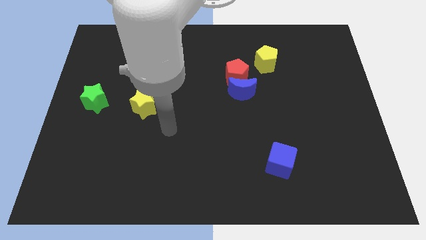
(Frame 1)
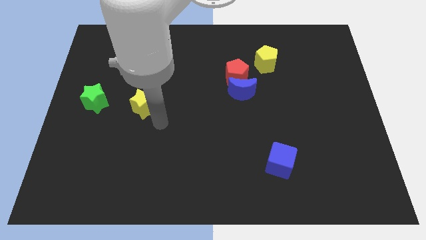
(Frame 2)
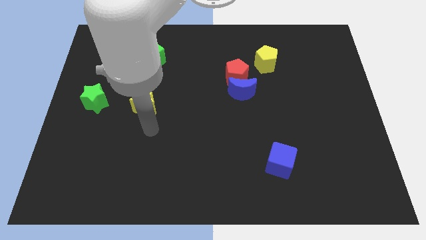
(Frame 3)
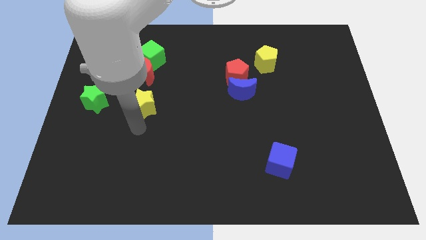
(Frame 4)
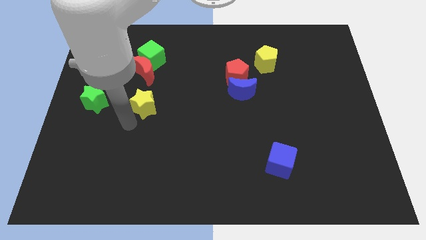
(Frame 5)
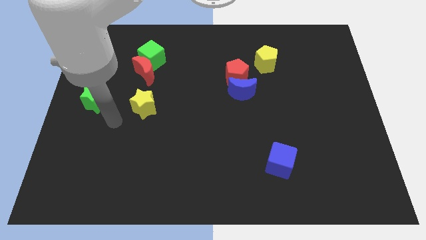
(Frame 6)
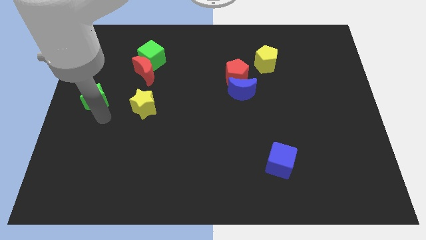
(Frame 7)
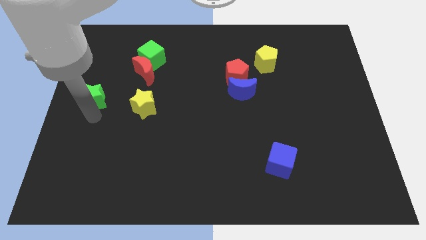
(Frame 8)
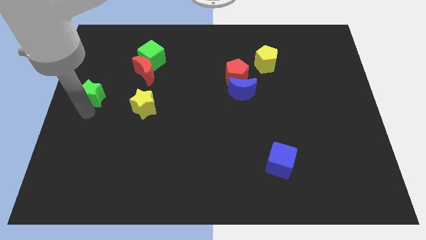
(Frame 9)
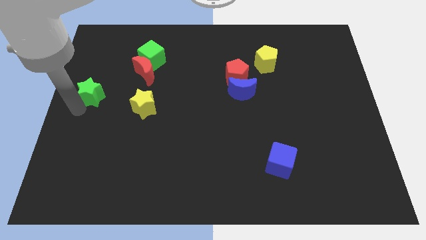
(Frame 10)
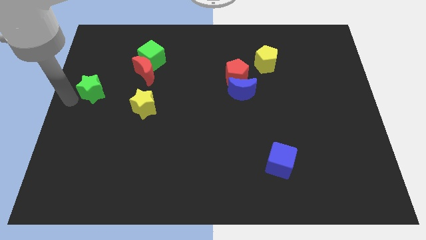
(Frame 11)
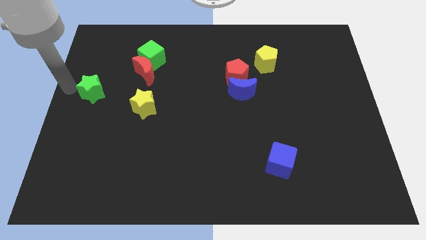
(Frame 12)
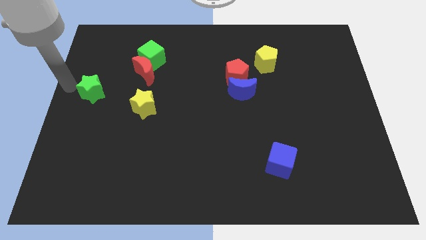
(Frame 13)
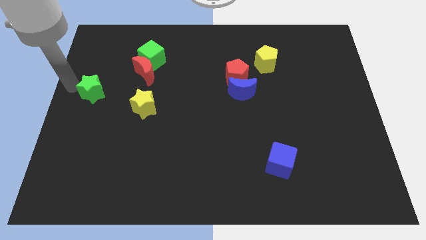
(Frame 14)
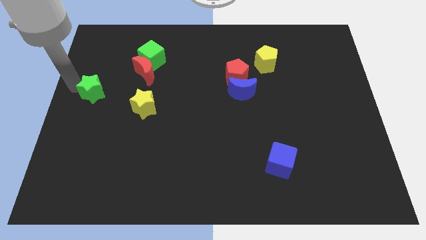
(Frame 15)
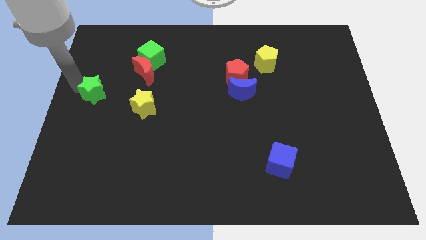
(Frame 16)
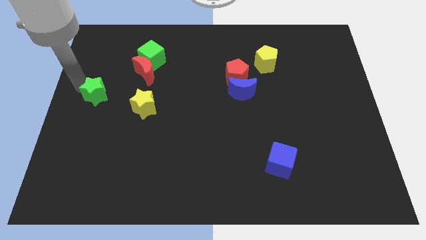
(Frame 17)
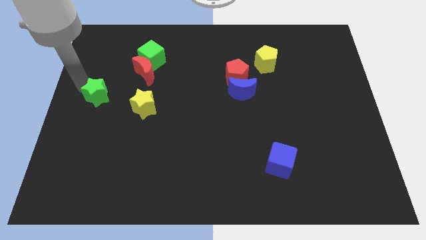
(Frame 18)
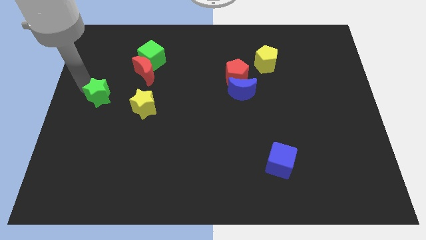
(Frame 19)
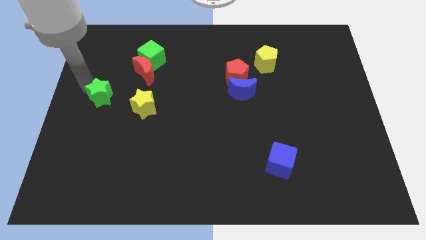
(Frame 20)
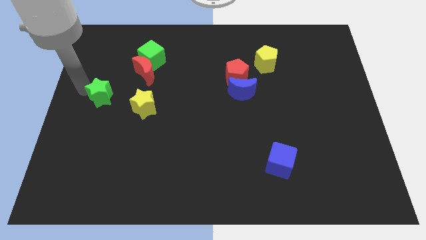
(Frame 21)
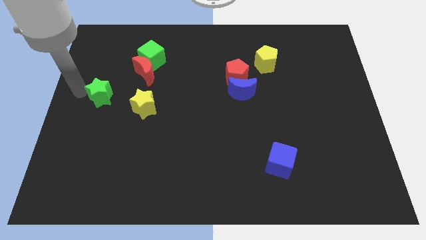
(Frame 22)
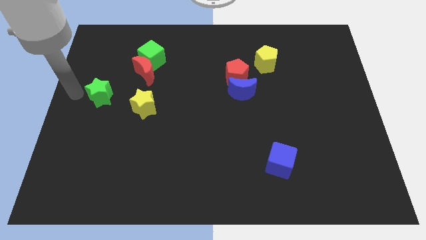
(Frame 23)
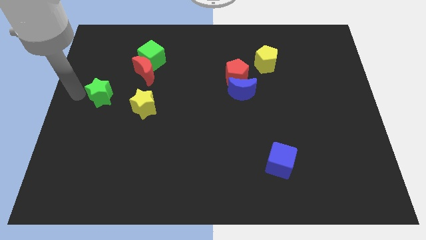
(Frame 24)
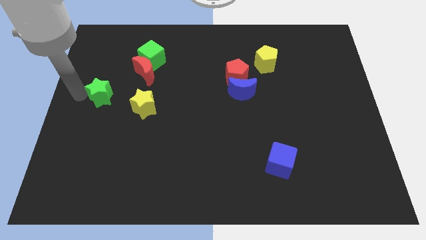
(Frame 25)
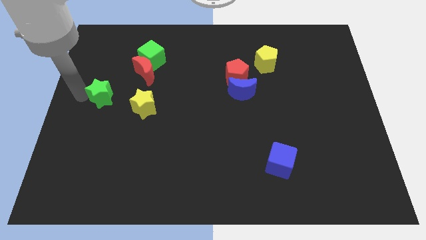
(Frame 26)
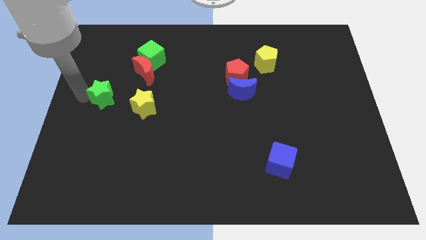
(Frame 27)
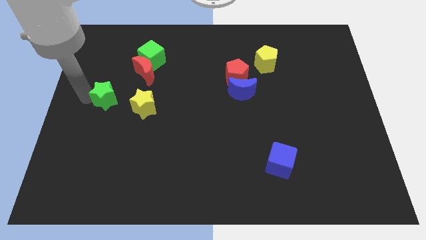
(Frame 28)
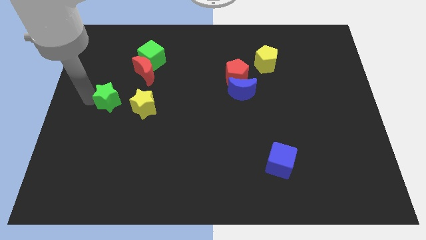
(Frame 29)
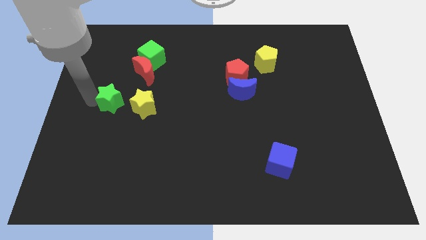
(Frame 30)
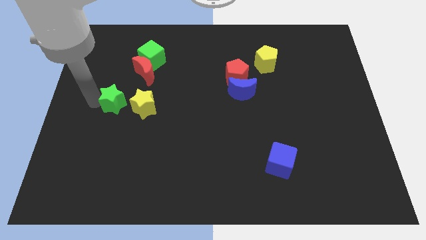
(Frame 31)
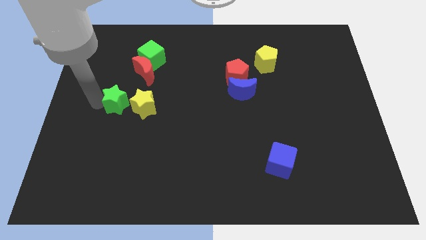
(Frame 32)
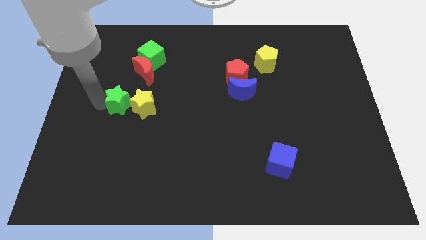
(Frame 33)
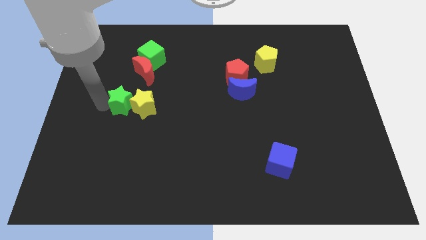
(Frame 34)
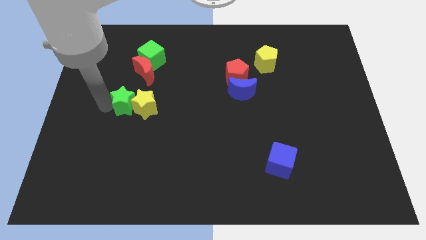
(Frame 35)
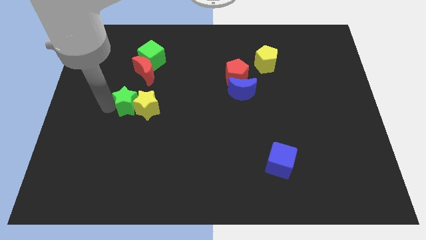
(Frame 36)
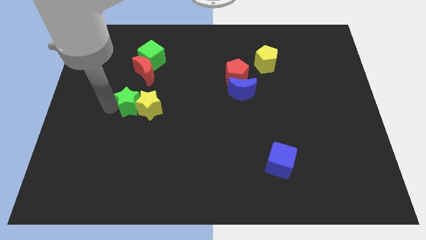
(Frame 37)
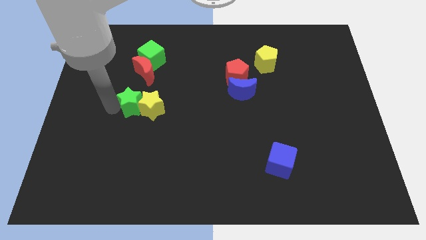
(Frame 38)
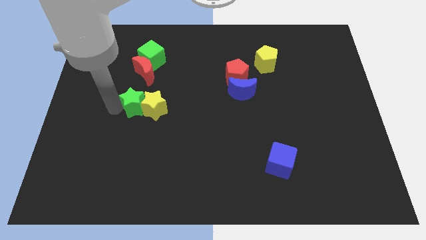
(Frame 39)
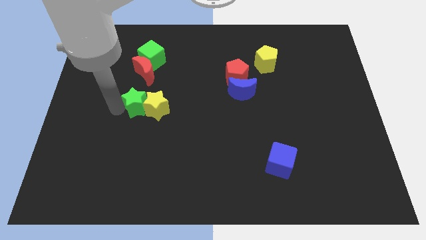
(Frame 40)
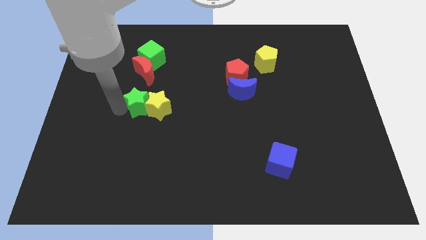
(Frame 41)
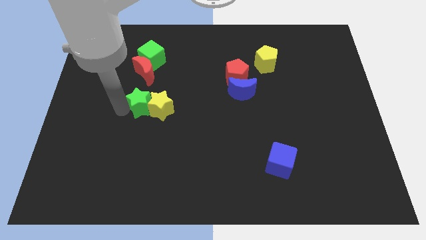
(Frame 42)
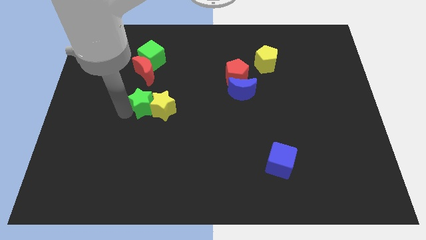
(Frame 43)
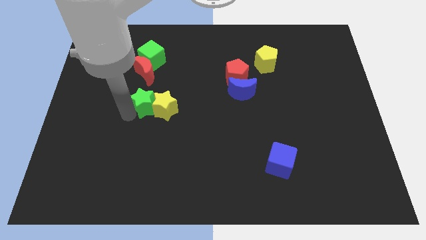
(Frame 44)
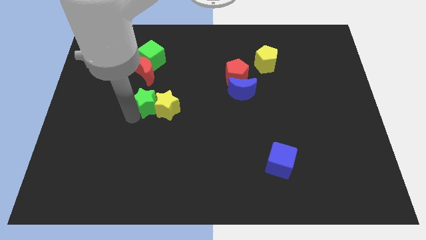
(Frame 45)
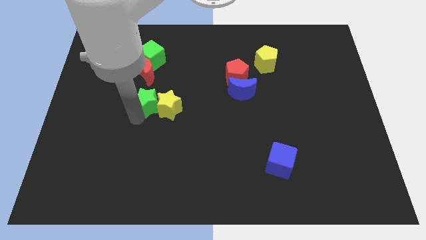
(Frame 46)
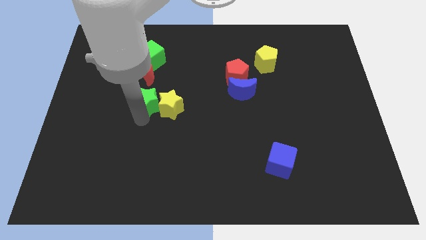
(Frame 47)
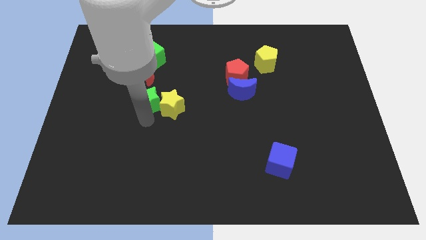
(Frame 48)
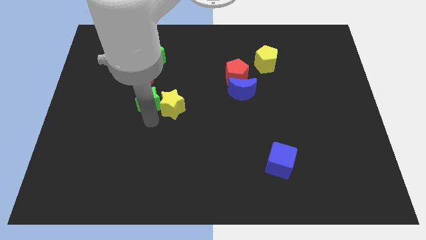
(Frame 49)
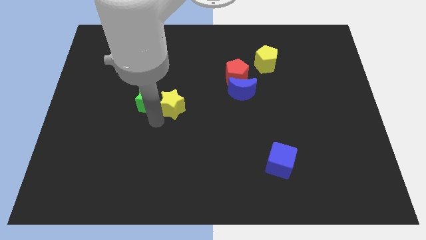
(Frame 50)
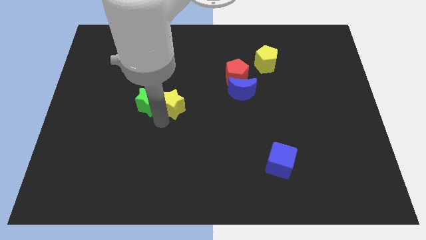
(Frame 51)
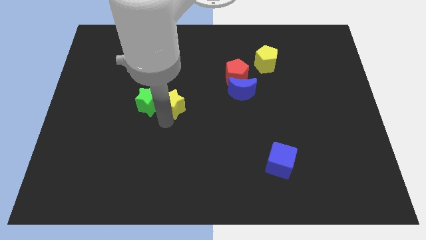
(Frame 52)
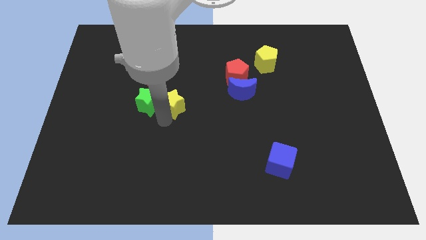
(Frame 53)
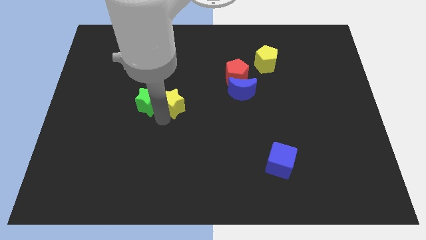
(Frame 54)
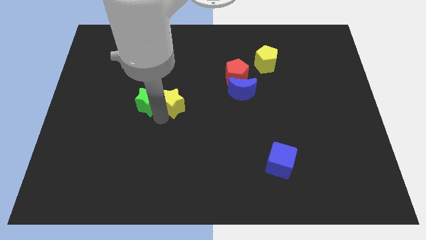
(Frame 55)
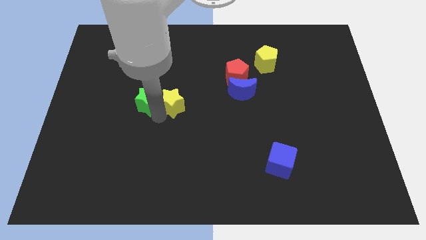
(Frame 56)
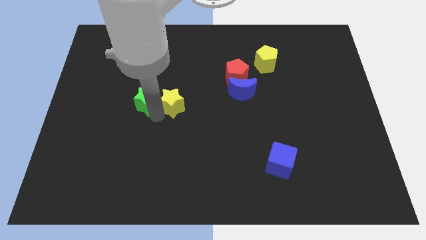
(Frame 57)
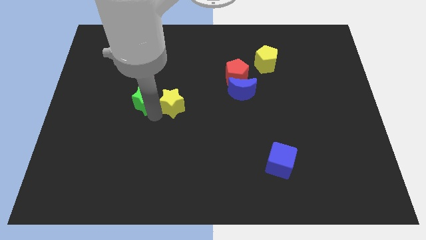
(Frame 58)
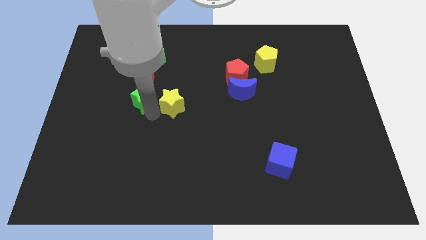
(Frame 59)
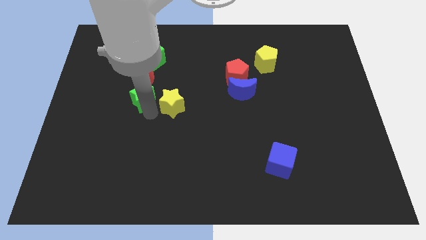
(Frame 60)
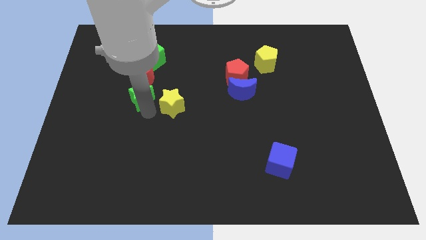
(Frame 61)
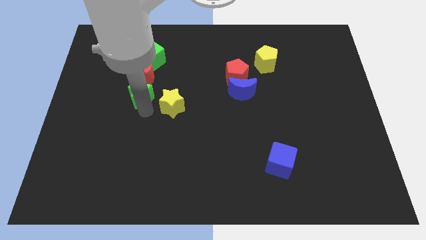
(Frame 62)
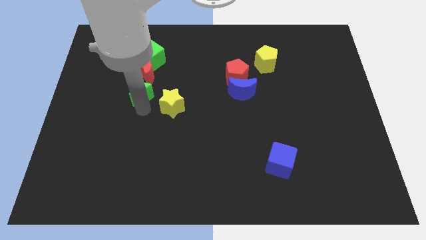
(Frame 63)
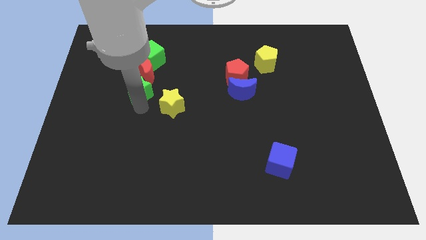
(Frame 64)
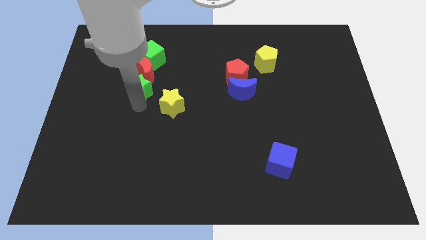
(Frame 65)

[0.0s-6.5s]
push the green star to the bottom right of the red moon
